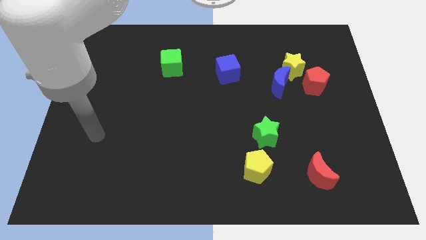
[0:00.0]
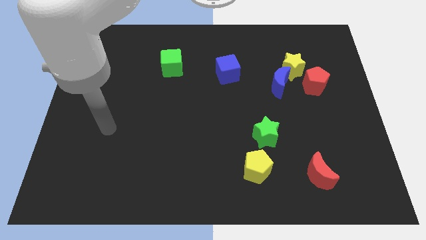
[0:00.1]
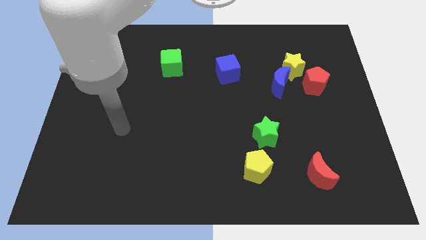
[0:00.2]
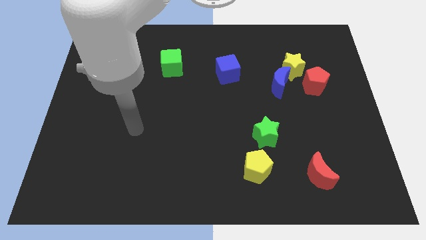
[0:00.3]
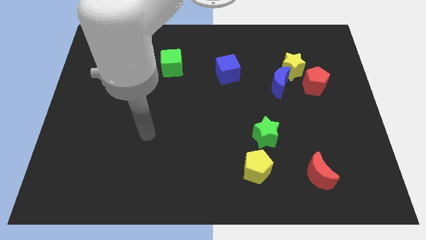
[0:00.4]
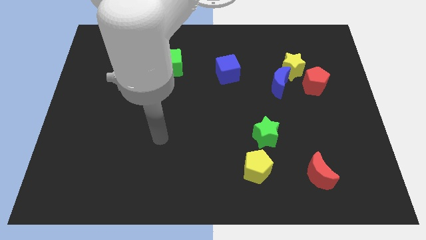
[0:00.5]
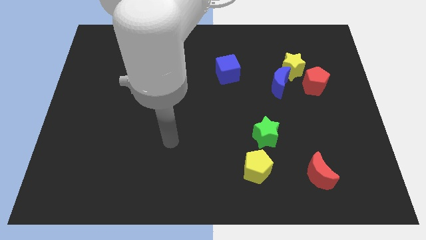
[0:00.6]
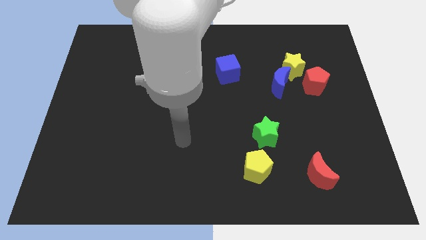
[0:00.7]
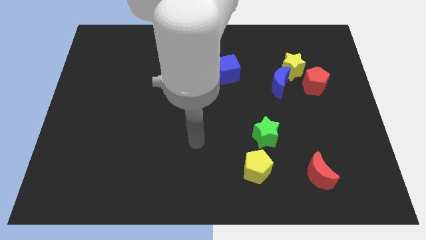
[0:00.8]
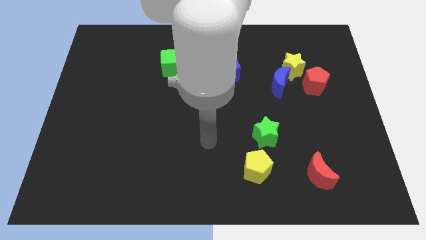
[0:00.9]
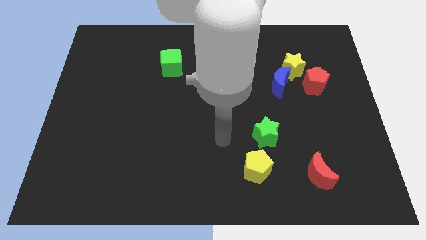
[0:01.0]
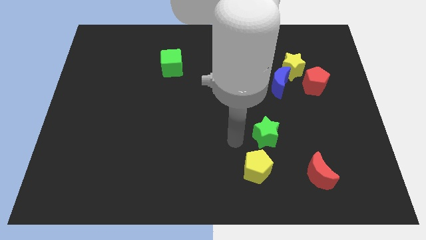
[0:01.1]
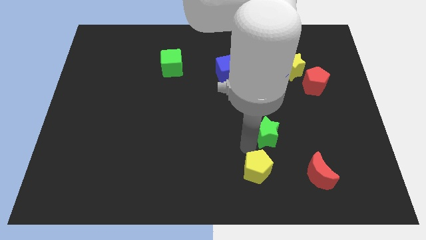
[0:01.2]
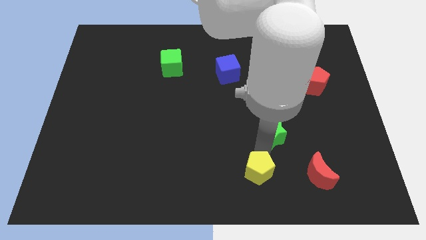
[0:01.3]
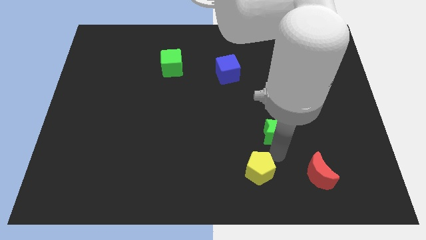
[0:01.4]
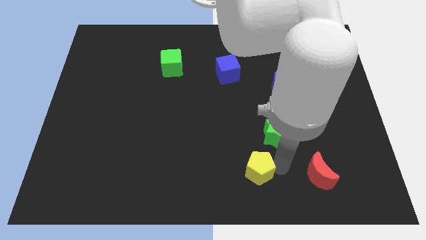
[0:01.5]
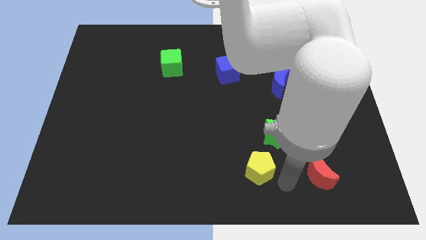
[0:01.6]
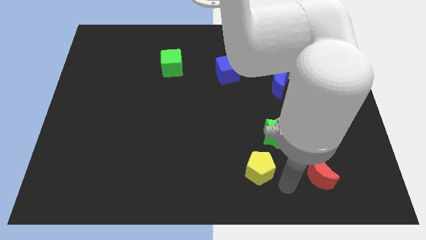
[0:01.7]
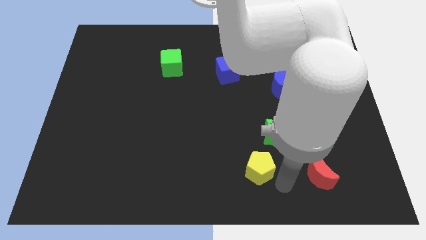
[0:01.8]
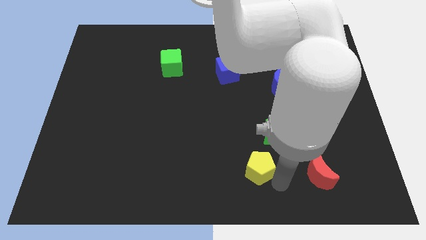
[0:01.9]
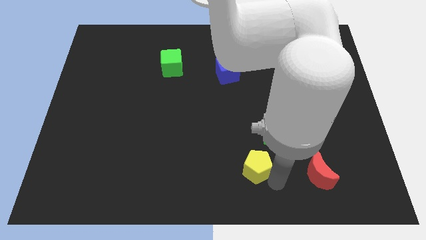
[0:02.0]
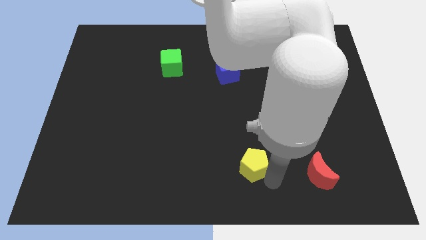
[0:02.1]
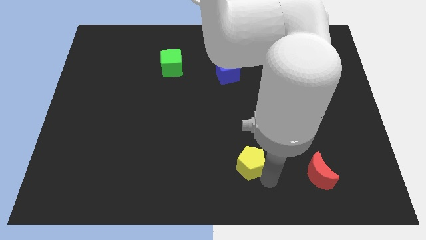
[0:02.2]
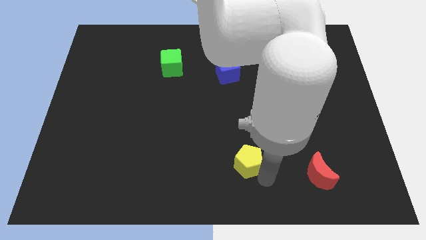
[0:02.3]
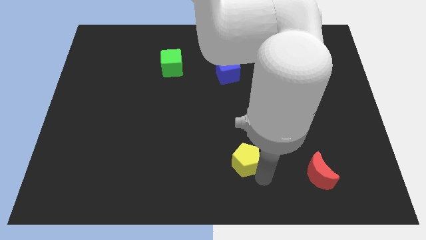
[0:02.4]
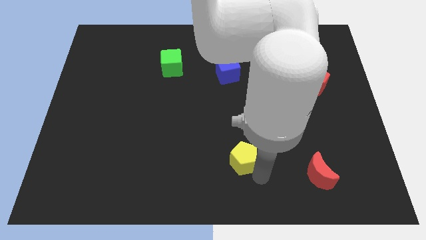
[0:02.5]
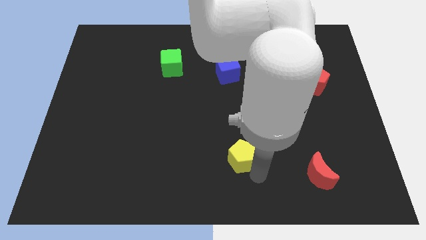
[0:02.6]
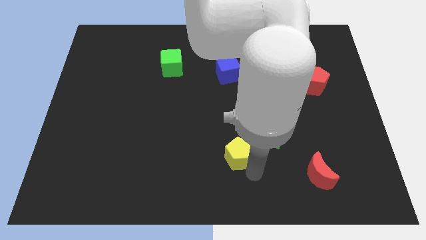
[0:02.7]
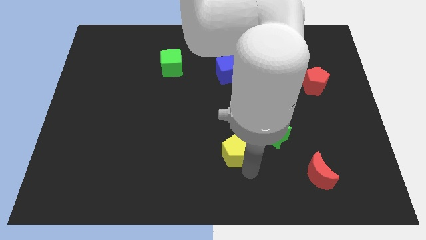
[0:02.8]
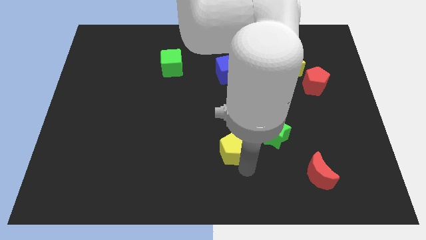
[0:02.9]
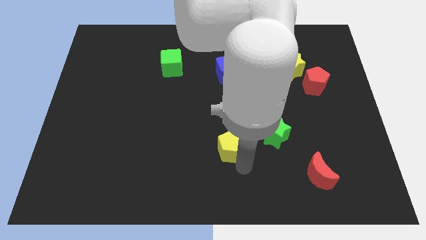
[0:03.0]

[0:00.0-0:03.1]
move the yellow pentagon somewhat upwards and left diagonally

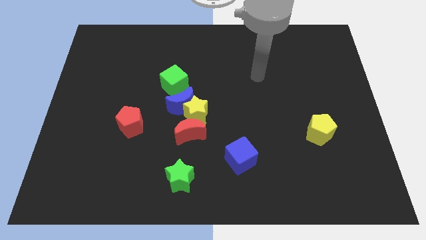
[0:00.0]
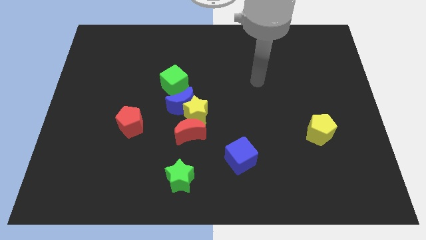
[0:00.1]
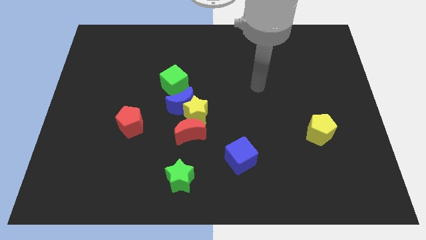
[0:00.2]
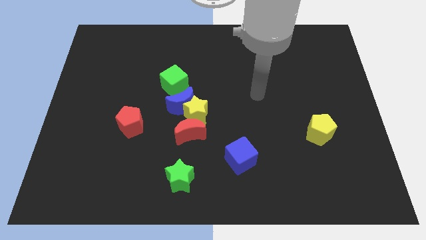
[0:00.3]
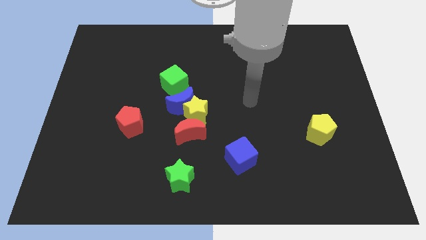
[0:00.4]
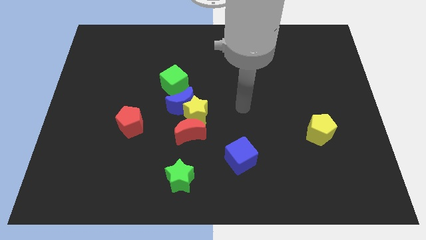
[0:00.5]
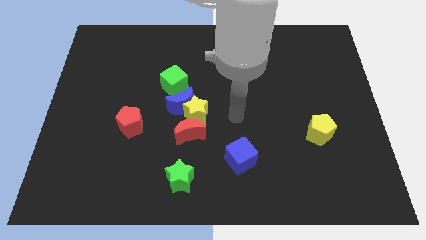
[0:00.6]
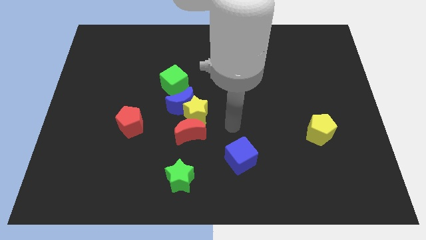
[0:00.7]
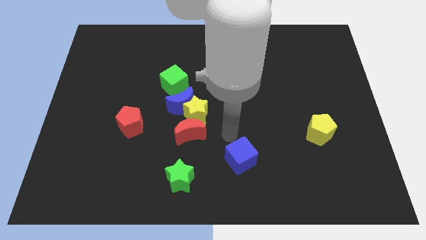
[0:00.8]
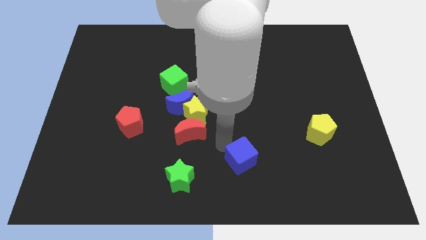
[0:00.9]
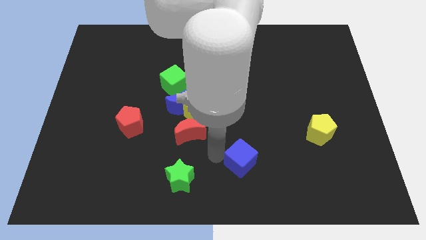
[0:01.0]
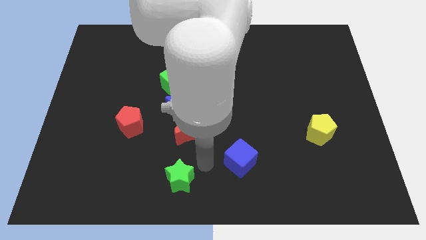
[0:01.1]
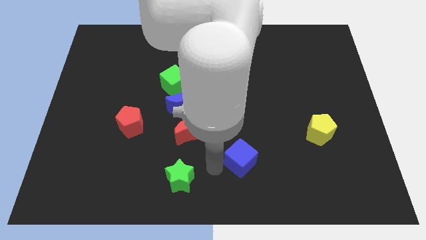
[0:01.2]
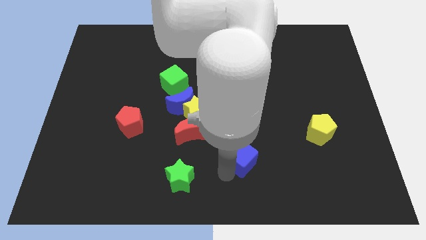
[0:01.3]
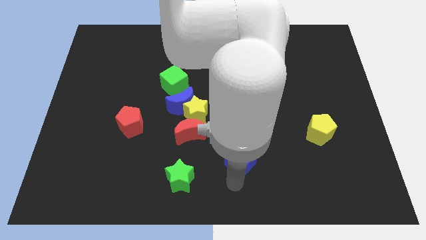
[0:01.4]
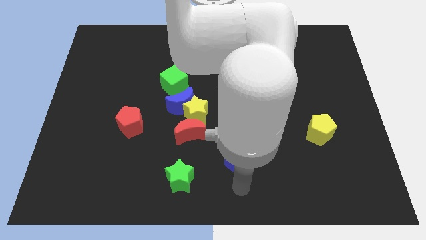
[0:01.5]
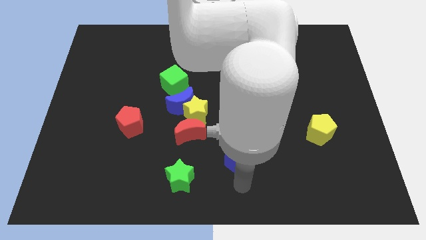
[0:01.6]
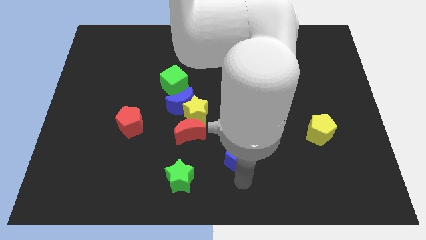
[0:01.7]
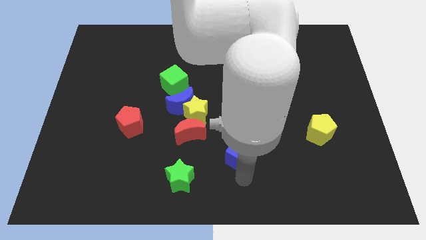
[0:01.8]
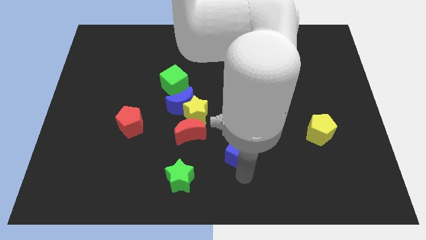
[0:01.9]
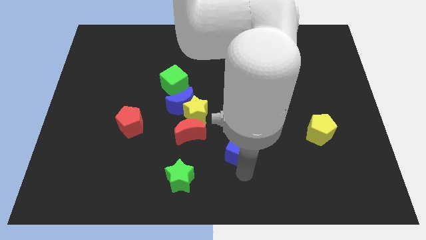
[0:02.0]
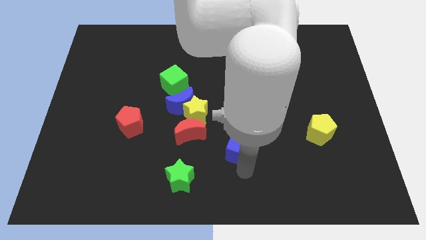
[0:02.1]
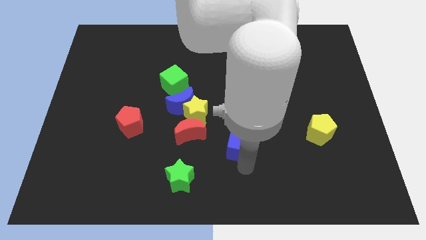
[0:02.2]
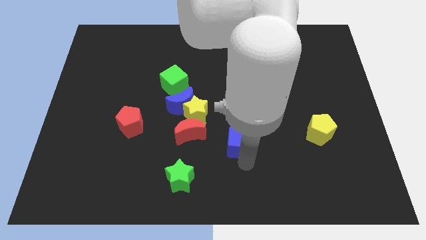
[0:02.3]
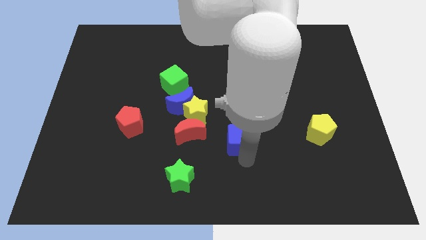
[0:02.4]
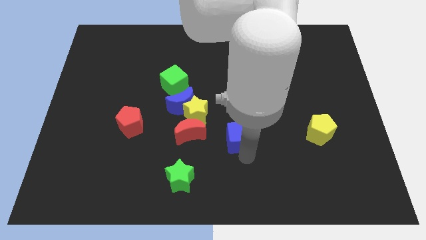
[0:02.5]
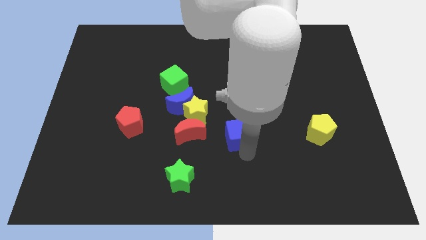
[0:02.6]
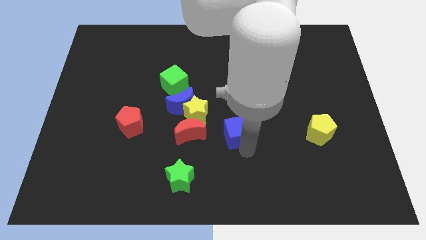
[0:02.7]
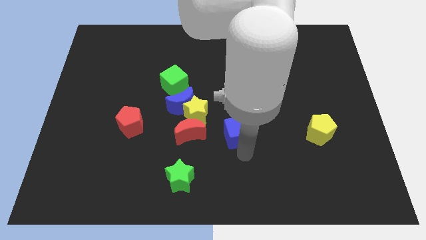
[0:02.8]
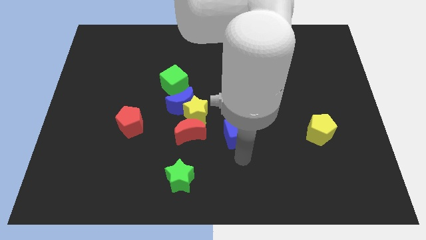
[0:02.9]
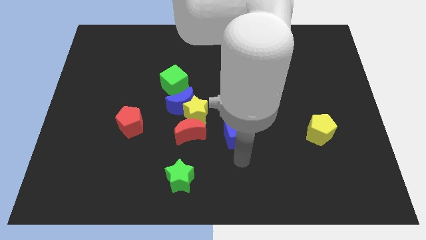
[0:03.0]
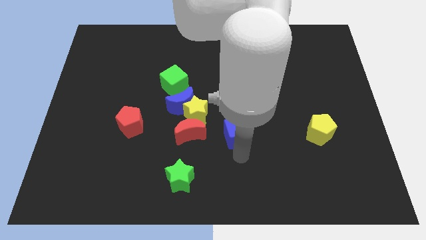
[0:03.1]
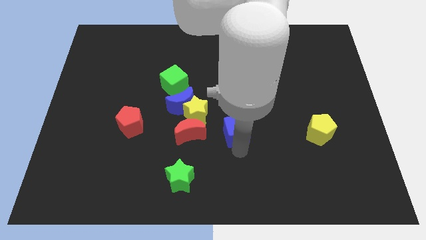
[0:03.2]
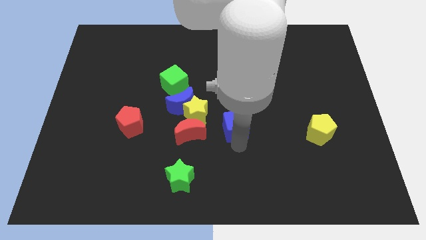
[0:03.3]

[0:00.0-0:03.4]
push the blue cube upwards a bit

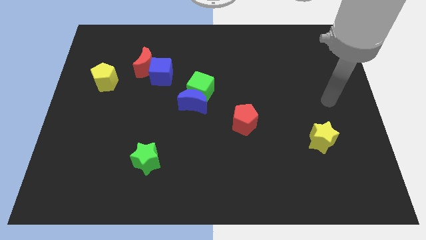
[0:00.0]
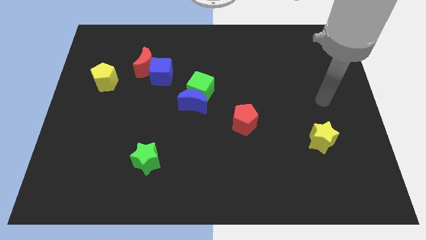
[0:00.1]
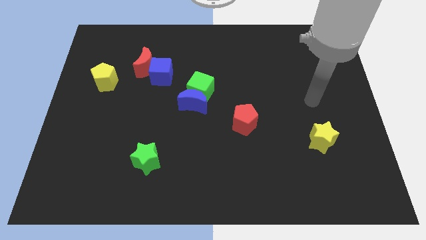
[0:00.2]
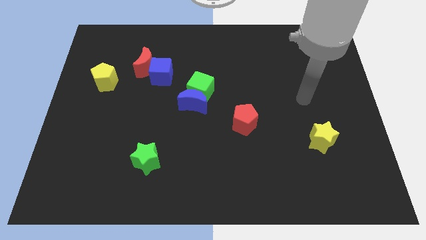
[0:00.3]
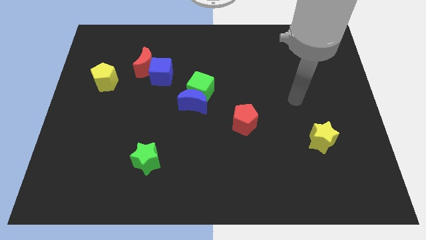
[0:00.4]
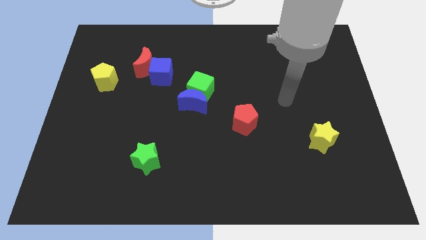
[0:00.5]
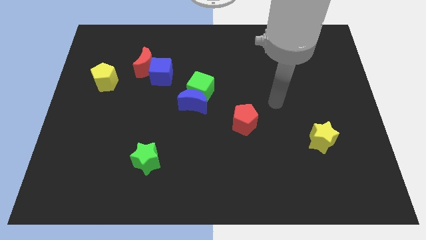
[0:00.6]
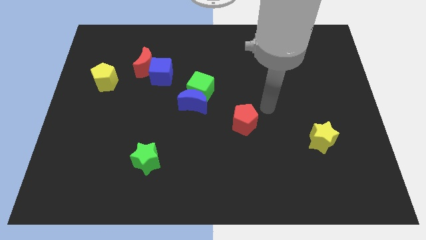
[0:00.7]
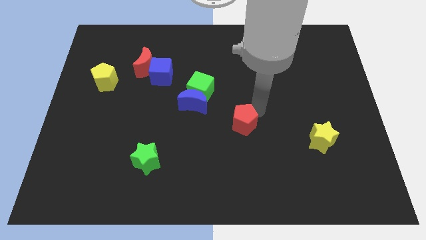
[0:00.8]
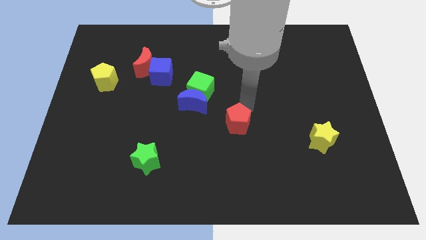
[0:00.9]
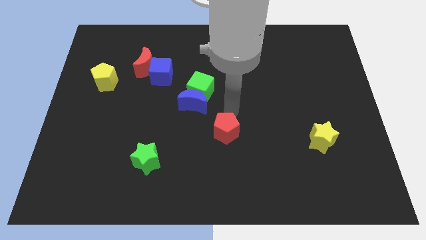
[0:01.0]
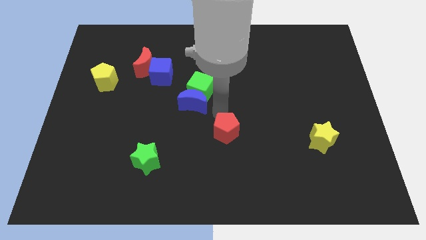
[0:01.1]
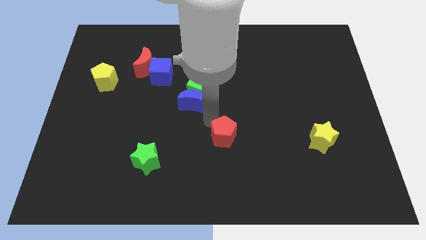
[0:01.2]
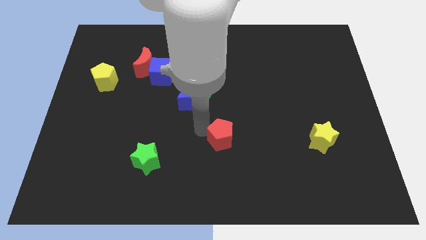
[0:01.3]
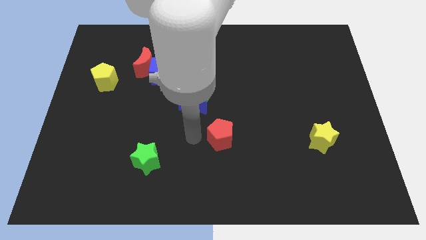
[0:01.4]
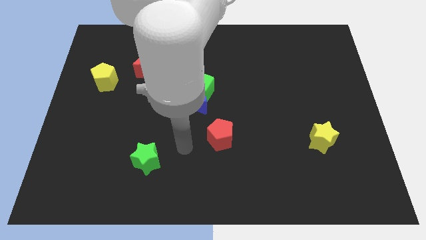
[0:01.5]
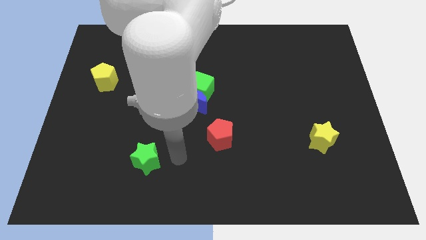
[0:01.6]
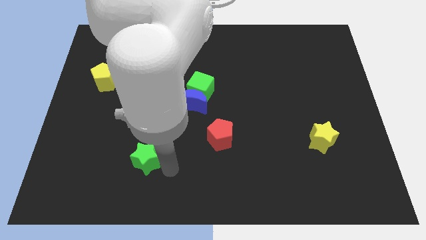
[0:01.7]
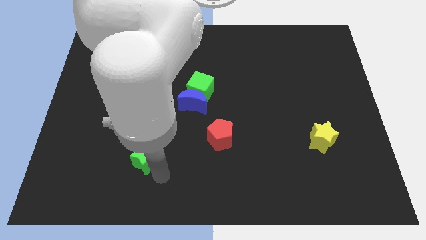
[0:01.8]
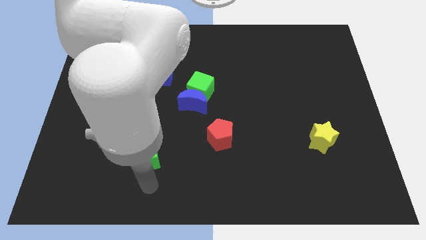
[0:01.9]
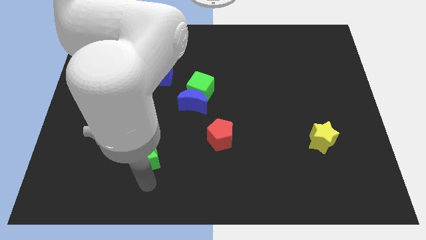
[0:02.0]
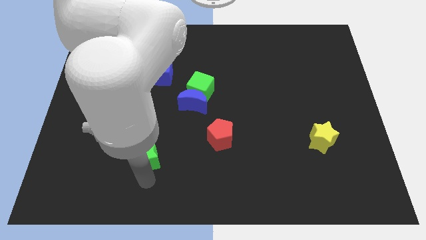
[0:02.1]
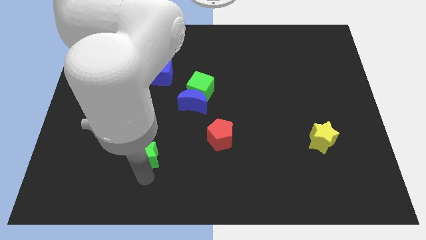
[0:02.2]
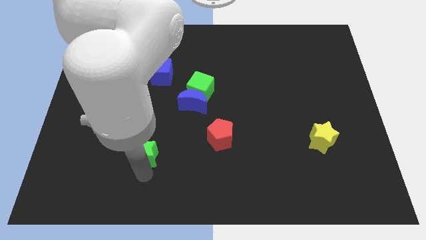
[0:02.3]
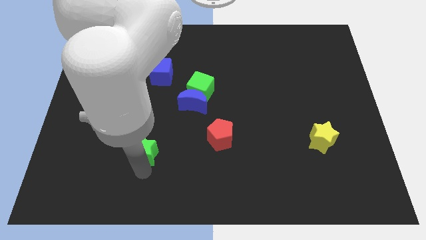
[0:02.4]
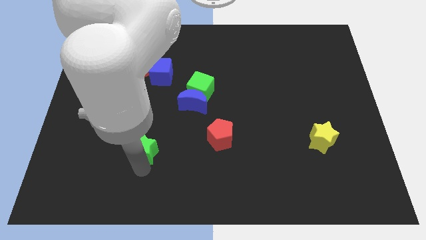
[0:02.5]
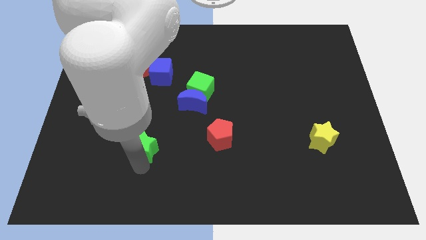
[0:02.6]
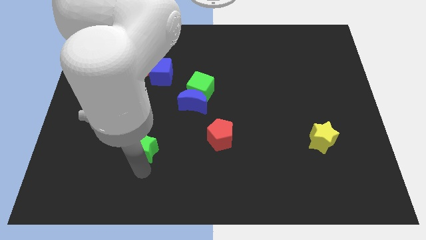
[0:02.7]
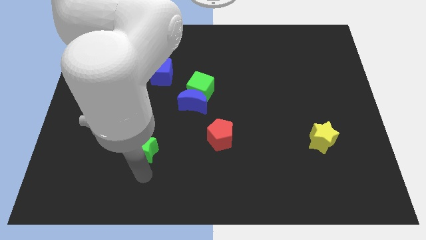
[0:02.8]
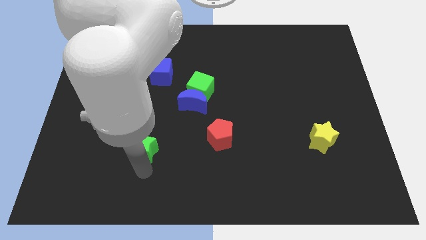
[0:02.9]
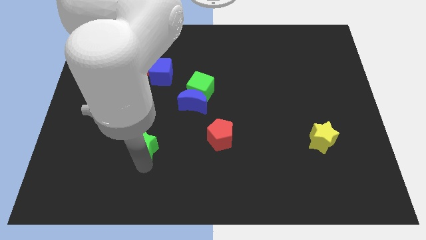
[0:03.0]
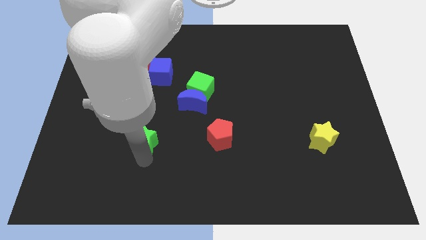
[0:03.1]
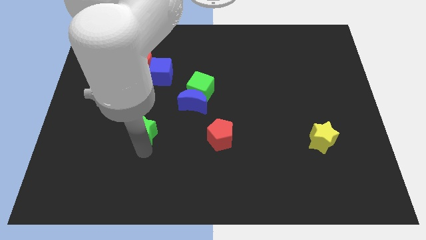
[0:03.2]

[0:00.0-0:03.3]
slightly push the green star upwards
